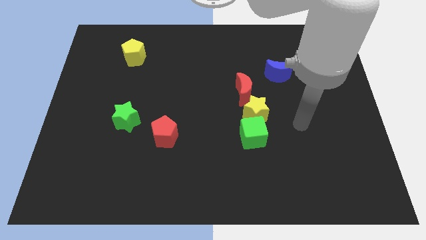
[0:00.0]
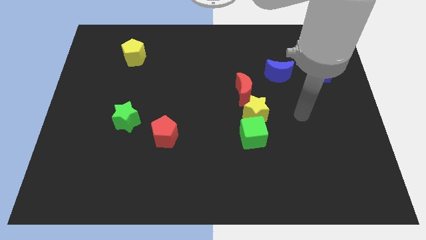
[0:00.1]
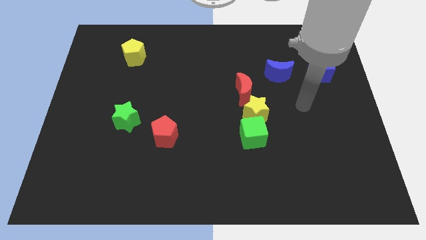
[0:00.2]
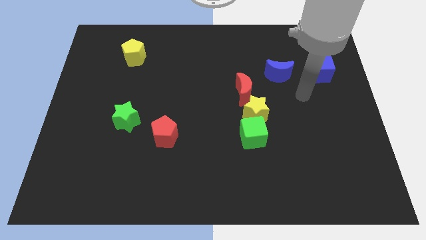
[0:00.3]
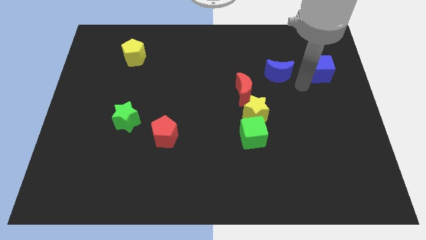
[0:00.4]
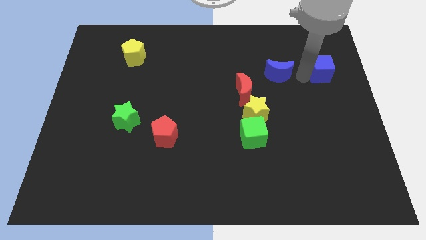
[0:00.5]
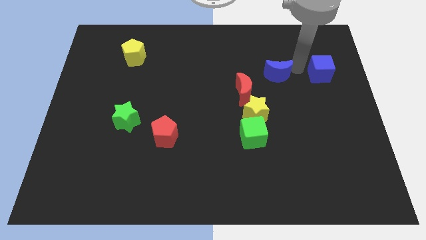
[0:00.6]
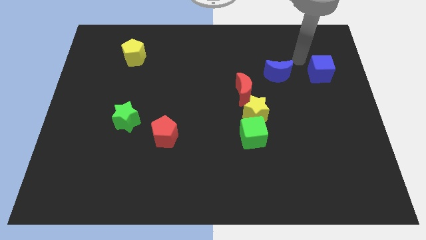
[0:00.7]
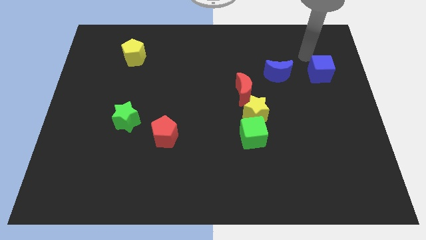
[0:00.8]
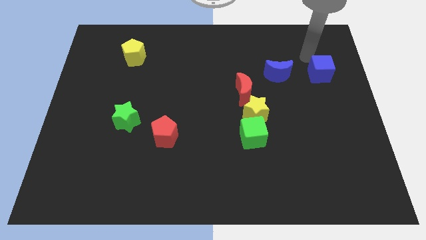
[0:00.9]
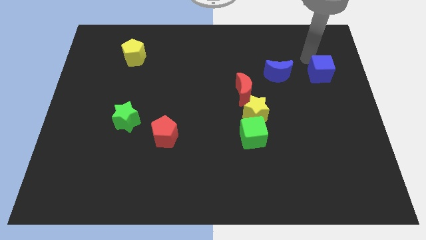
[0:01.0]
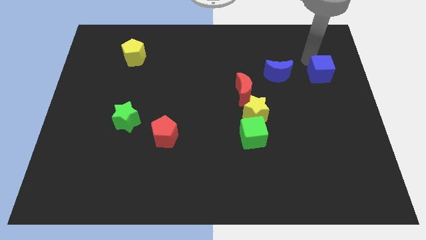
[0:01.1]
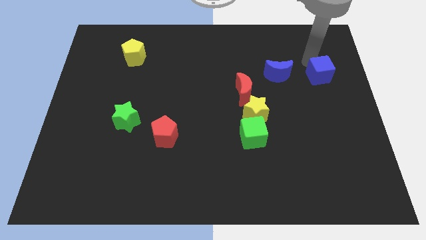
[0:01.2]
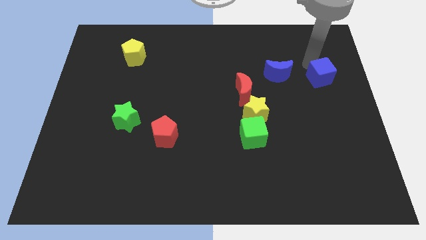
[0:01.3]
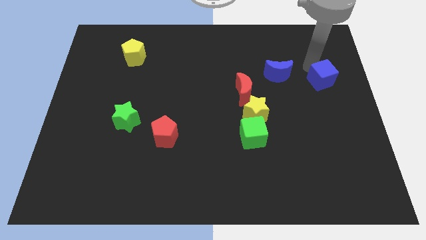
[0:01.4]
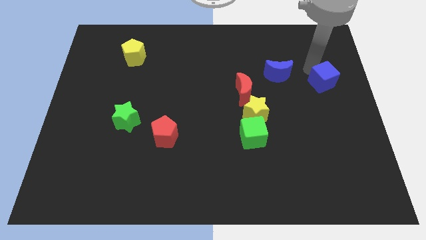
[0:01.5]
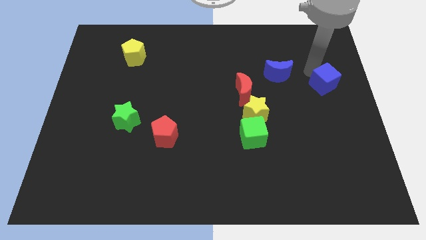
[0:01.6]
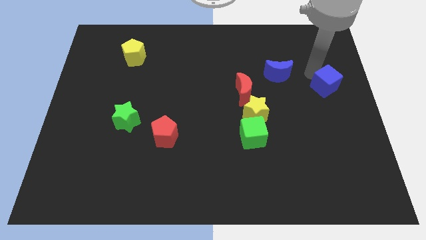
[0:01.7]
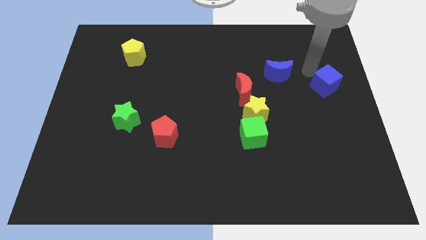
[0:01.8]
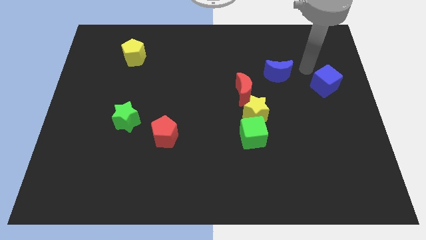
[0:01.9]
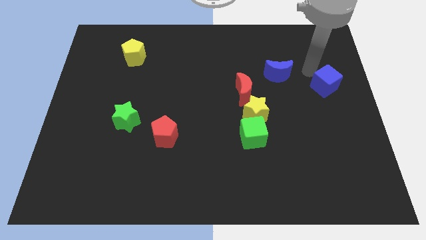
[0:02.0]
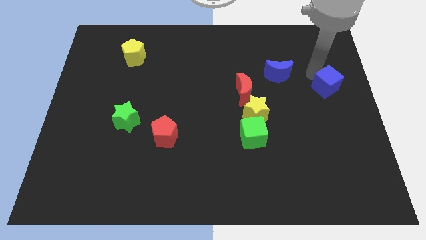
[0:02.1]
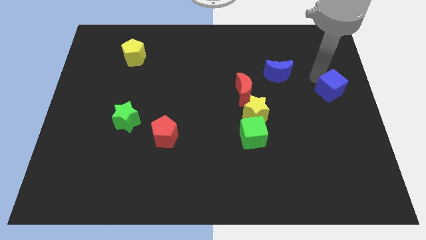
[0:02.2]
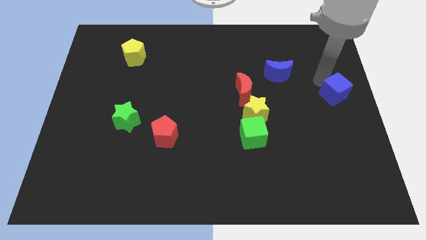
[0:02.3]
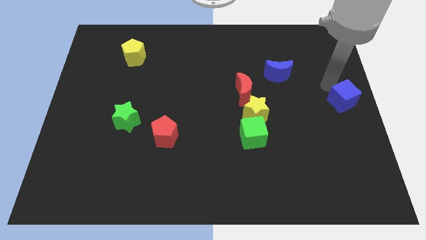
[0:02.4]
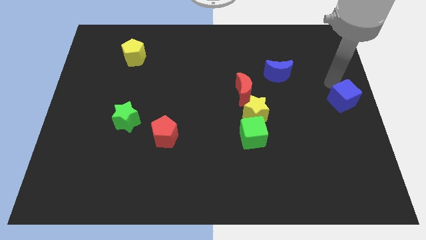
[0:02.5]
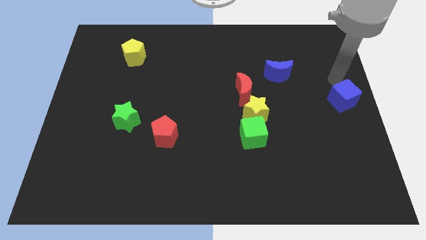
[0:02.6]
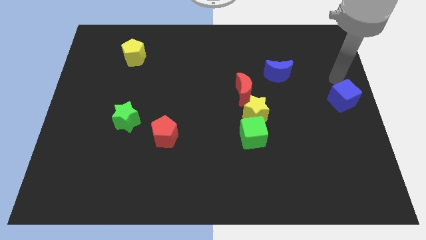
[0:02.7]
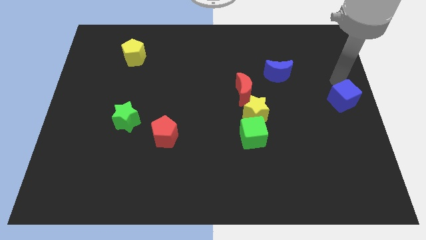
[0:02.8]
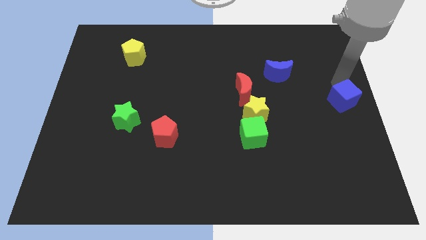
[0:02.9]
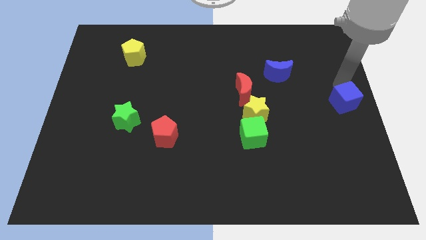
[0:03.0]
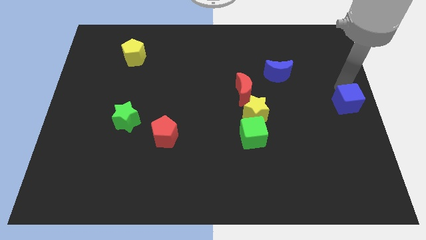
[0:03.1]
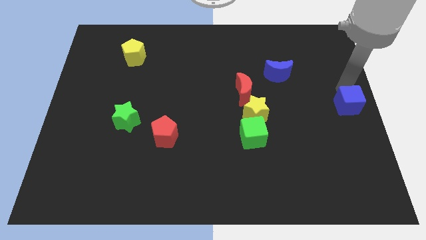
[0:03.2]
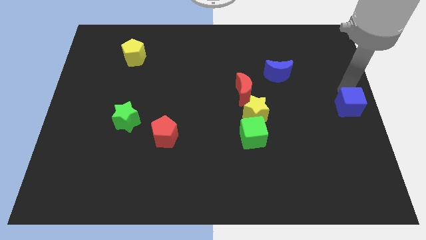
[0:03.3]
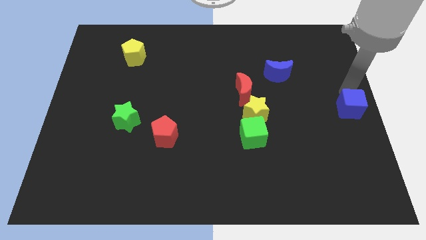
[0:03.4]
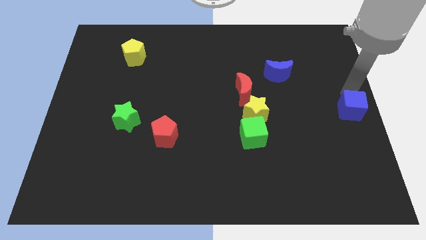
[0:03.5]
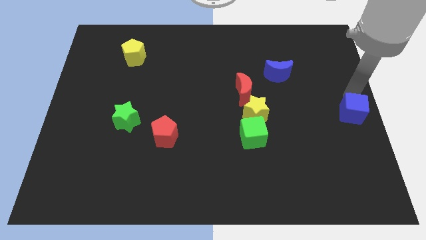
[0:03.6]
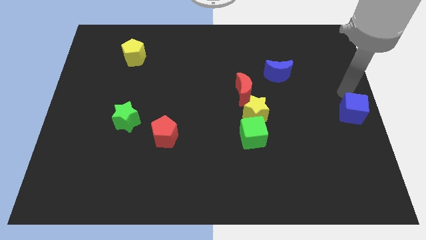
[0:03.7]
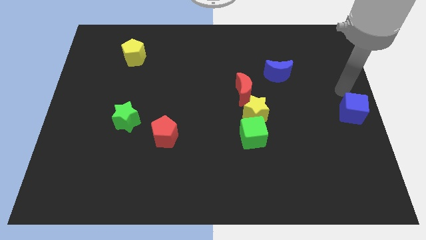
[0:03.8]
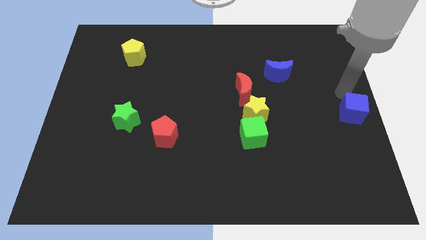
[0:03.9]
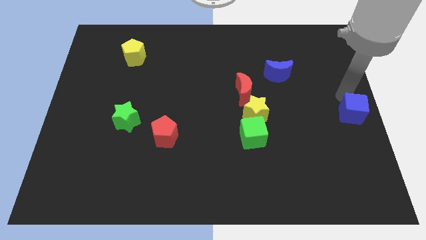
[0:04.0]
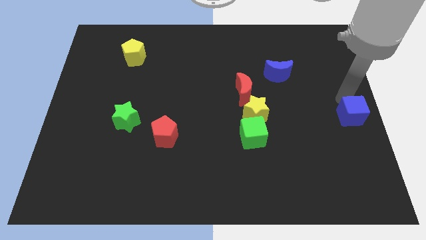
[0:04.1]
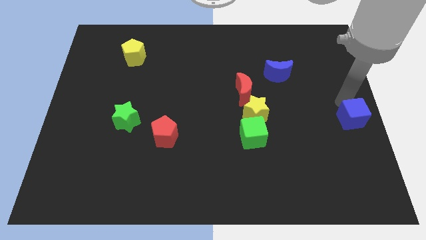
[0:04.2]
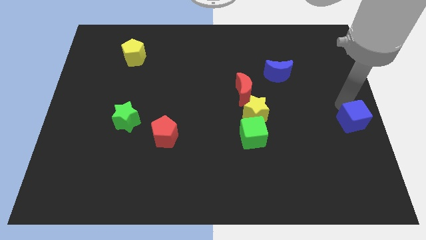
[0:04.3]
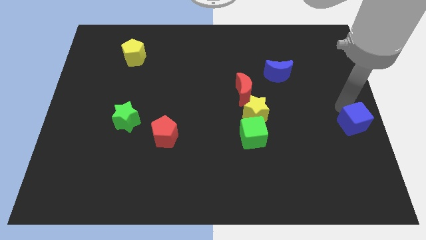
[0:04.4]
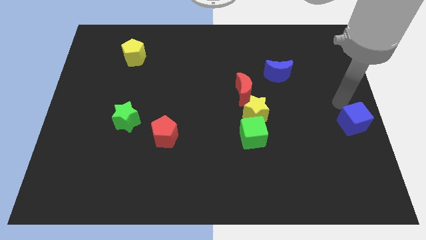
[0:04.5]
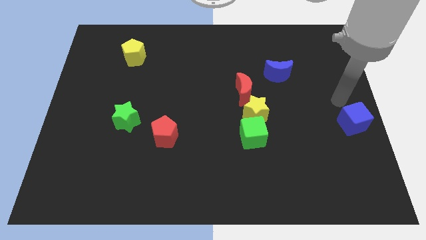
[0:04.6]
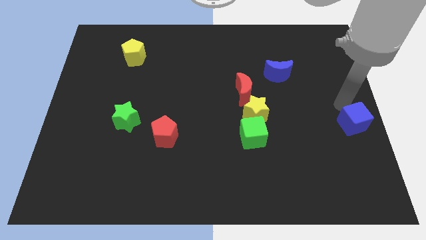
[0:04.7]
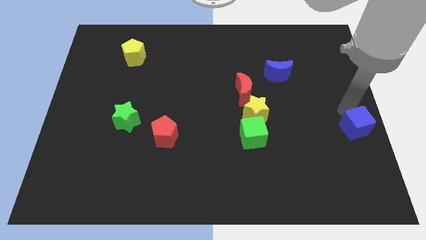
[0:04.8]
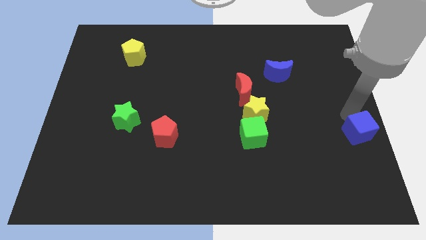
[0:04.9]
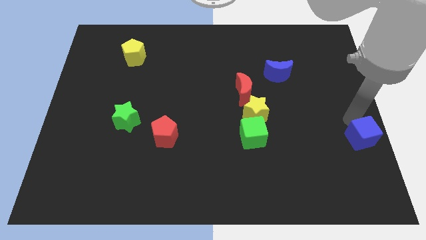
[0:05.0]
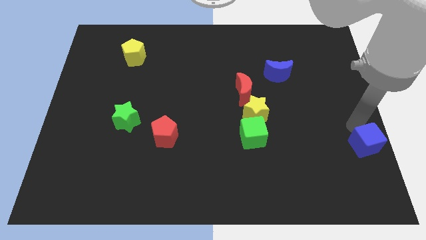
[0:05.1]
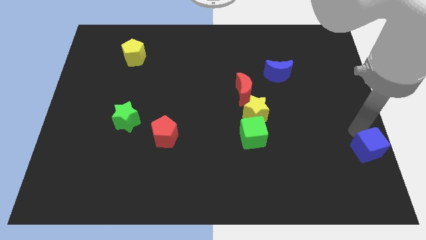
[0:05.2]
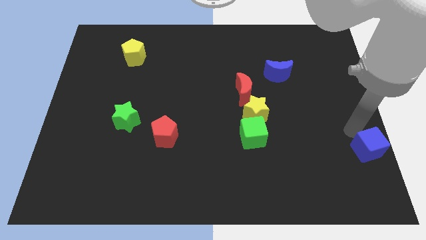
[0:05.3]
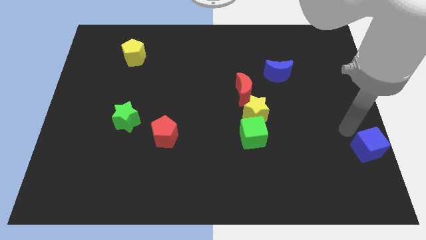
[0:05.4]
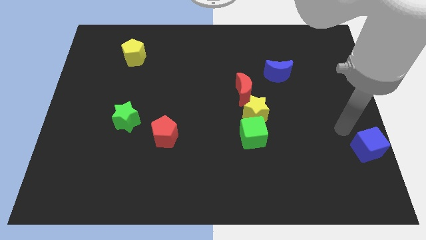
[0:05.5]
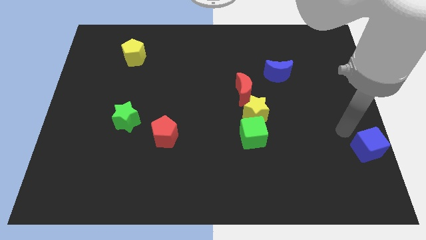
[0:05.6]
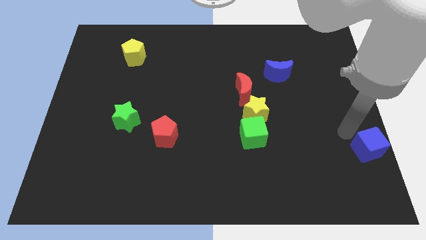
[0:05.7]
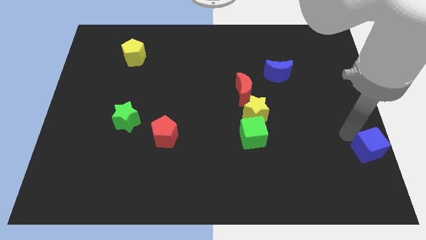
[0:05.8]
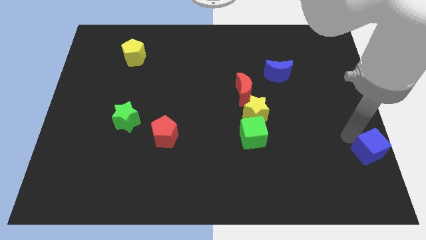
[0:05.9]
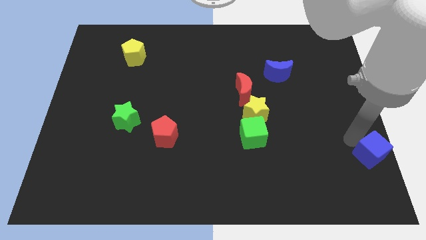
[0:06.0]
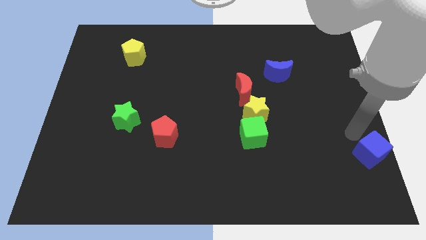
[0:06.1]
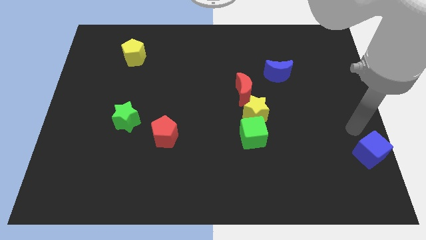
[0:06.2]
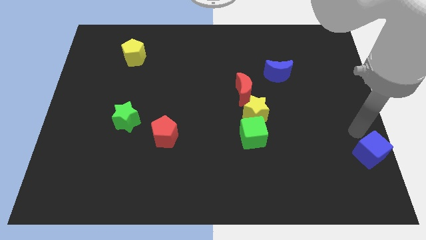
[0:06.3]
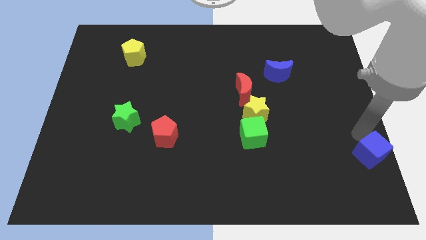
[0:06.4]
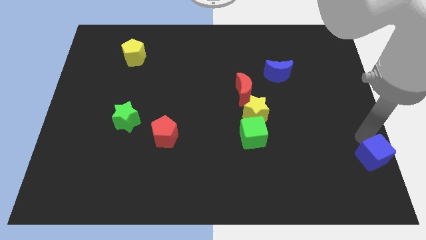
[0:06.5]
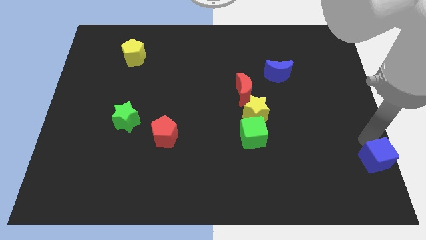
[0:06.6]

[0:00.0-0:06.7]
slide the blue cube to the lower right corner

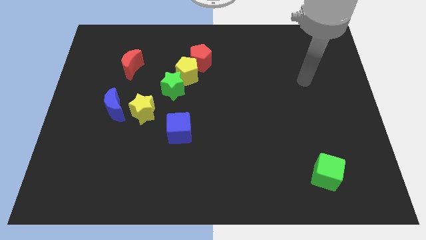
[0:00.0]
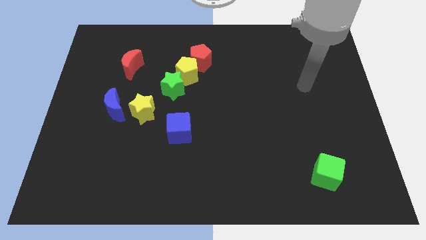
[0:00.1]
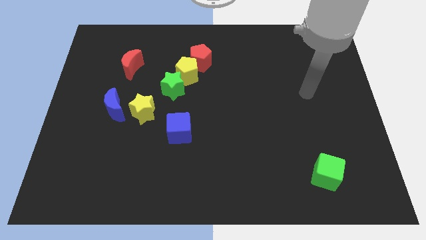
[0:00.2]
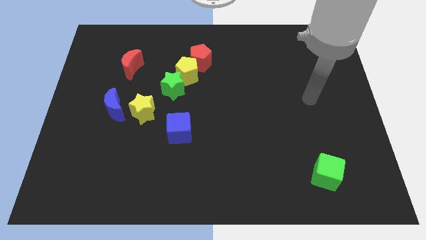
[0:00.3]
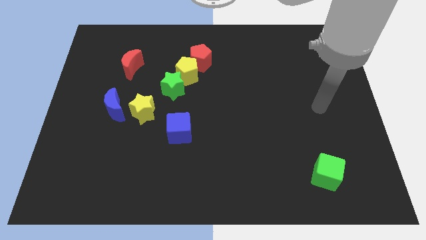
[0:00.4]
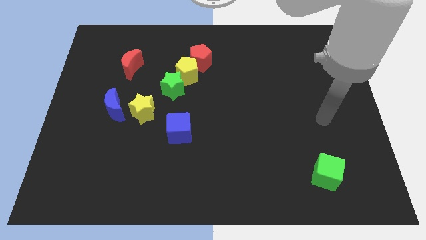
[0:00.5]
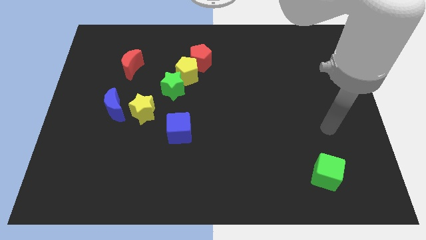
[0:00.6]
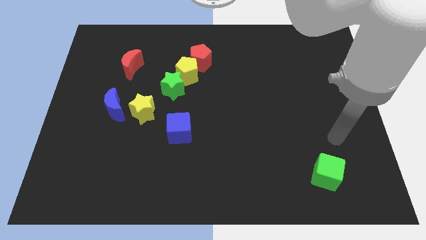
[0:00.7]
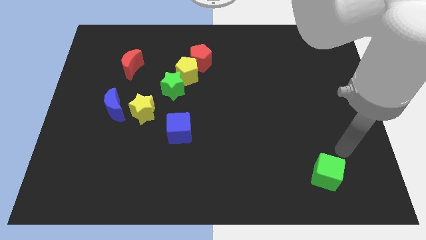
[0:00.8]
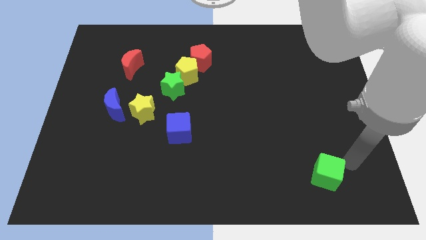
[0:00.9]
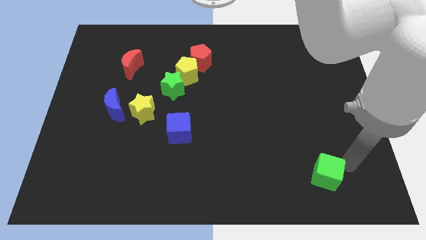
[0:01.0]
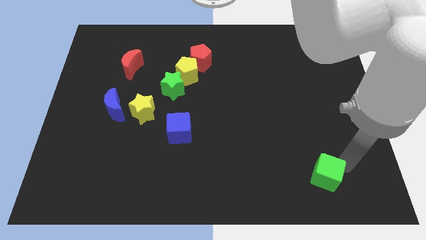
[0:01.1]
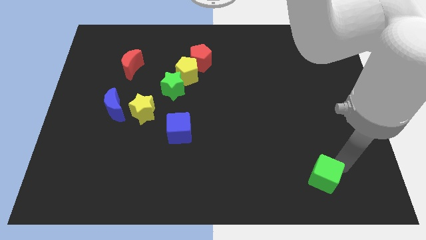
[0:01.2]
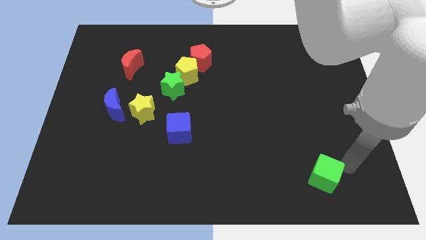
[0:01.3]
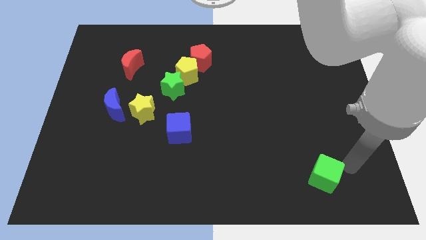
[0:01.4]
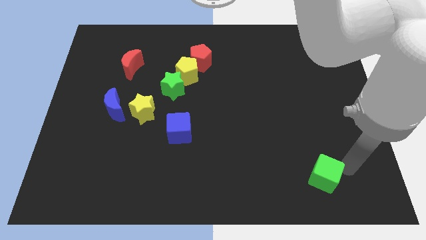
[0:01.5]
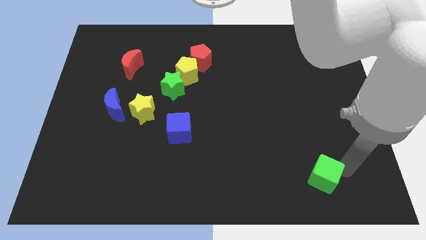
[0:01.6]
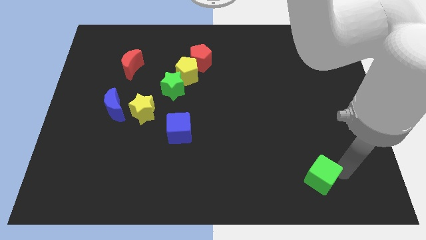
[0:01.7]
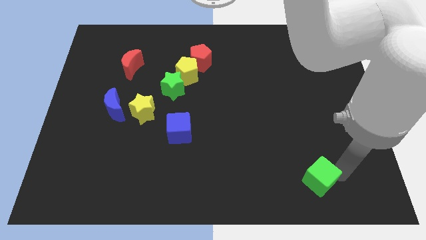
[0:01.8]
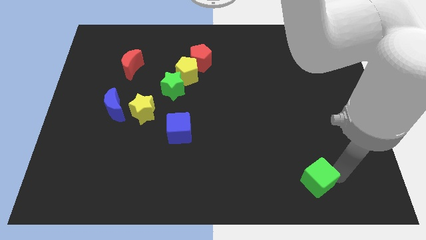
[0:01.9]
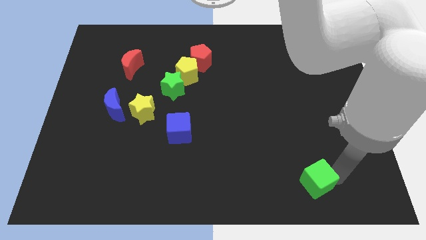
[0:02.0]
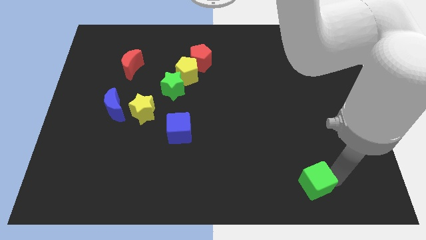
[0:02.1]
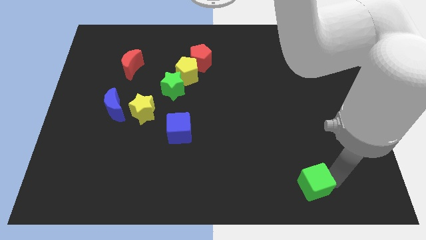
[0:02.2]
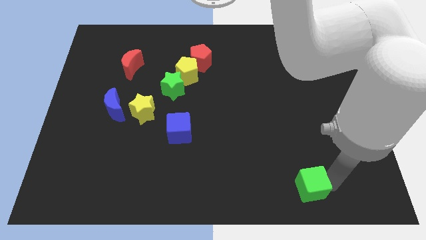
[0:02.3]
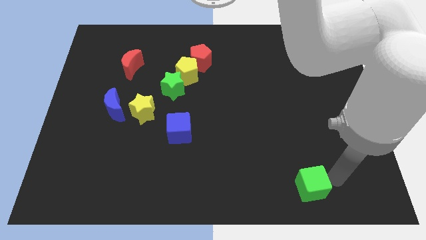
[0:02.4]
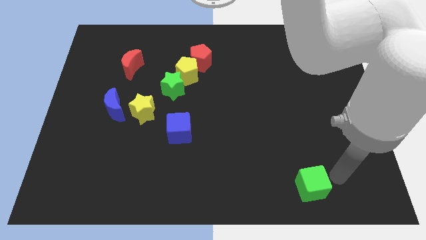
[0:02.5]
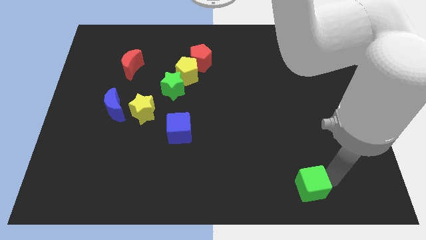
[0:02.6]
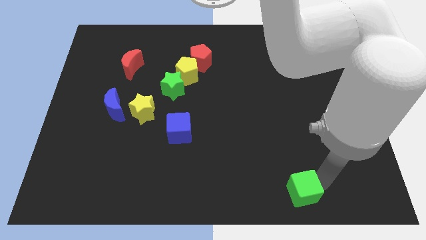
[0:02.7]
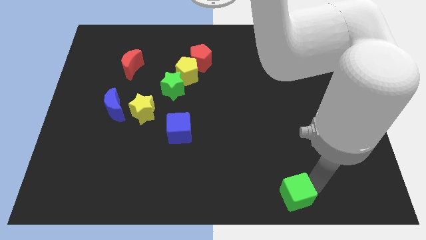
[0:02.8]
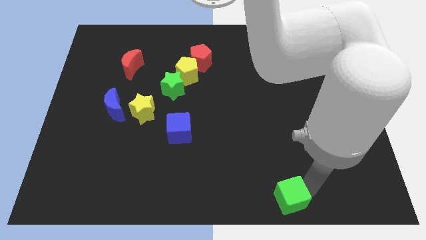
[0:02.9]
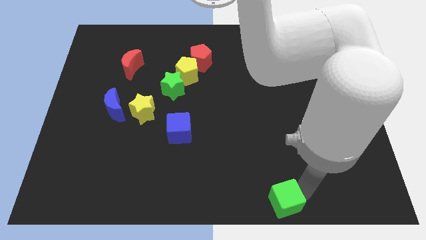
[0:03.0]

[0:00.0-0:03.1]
push the green cube to the bottom
